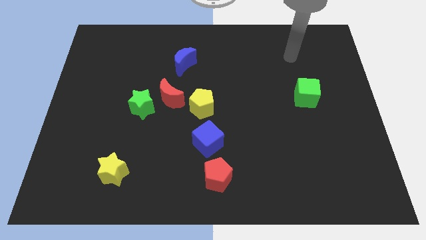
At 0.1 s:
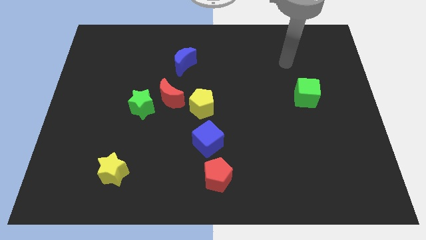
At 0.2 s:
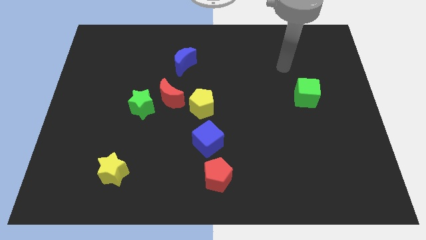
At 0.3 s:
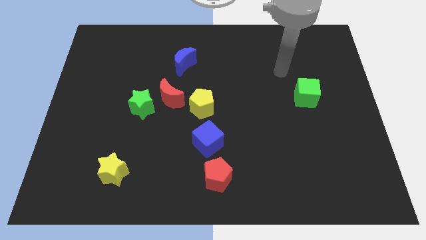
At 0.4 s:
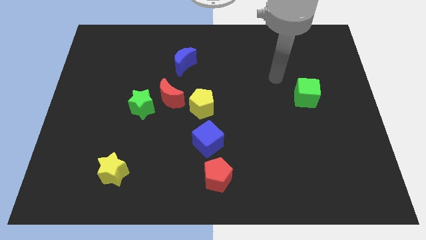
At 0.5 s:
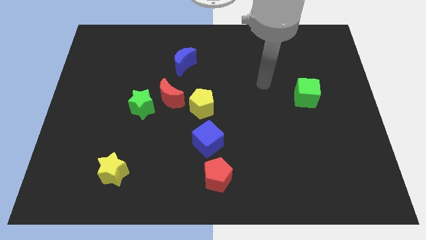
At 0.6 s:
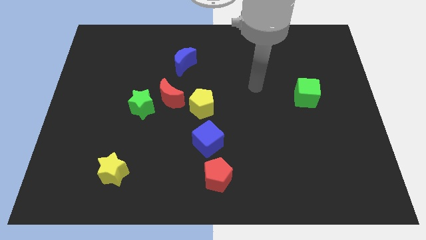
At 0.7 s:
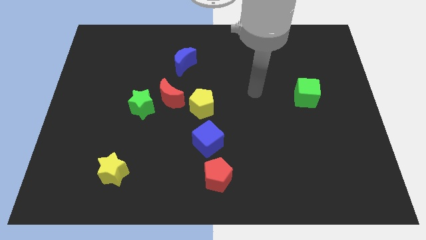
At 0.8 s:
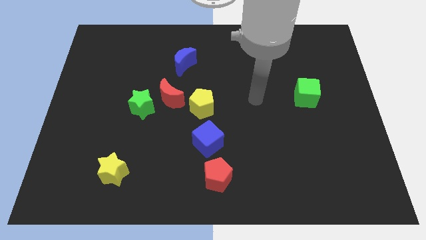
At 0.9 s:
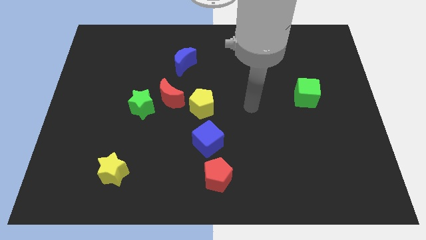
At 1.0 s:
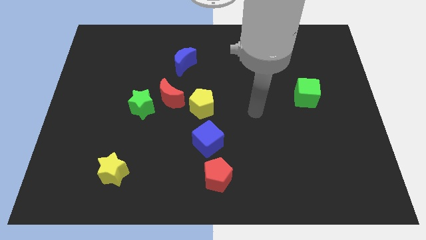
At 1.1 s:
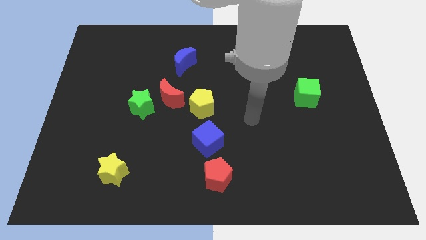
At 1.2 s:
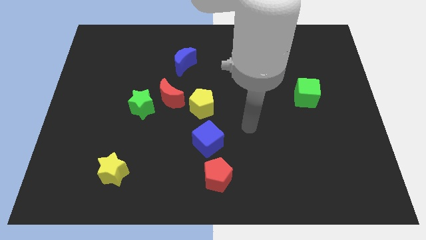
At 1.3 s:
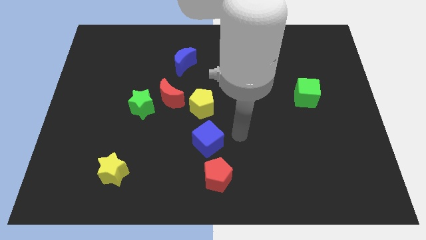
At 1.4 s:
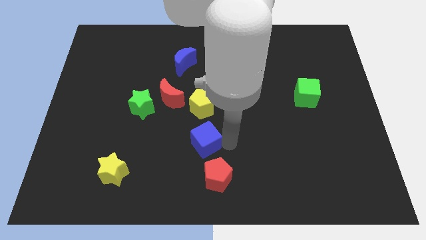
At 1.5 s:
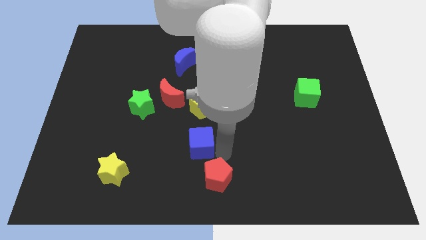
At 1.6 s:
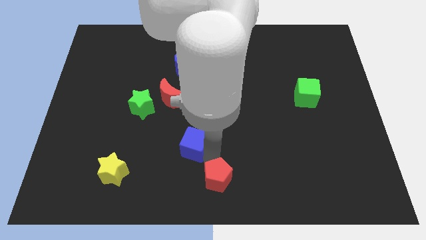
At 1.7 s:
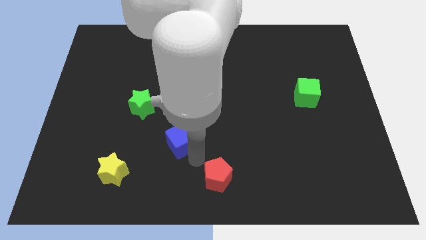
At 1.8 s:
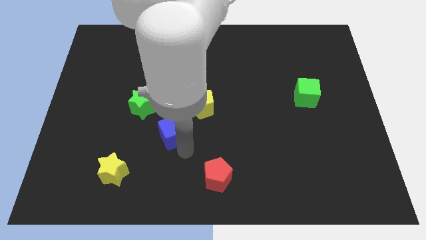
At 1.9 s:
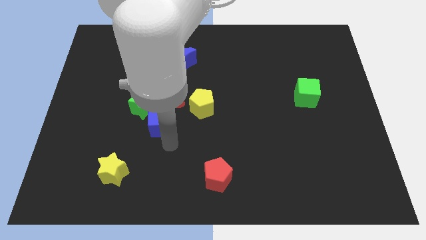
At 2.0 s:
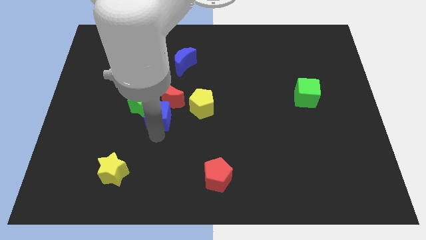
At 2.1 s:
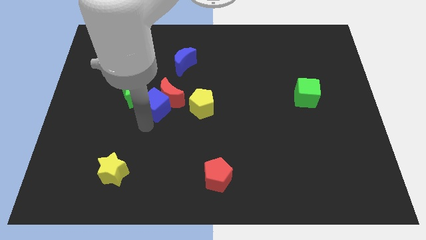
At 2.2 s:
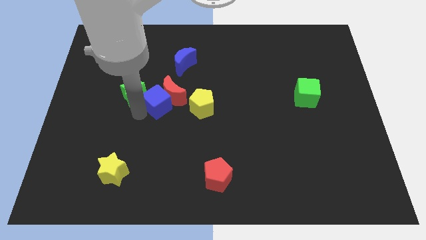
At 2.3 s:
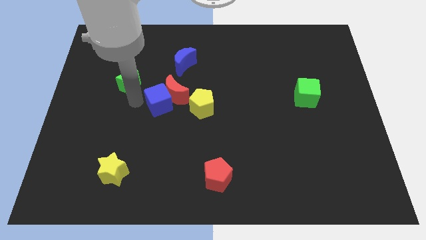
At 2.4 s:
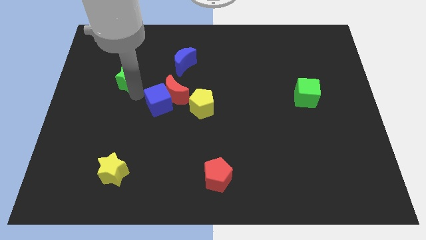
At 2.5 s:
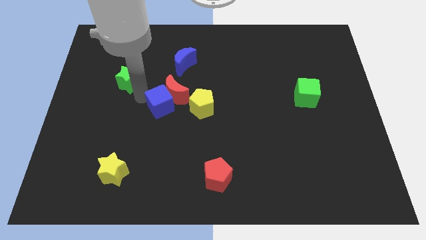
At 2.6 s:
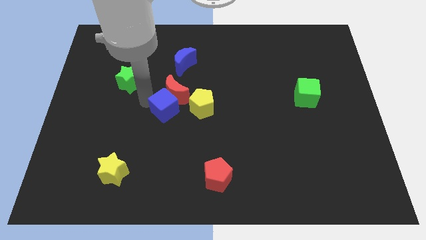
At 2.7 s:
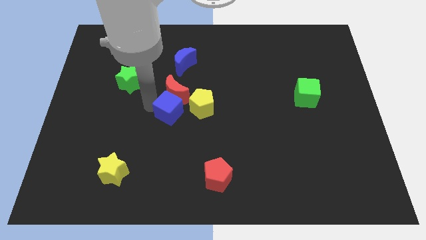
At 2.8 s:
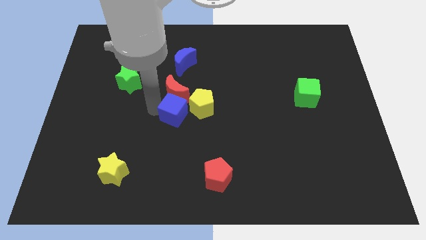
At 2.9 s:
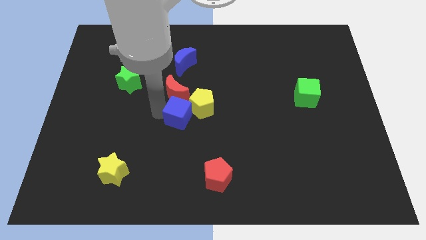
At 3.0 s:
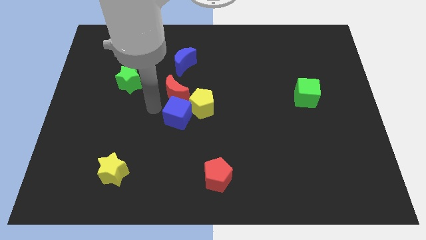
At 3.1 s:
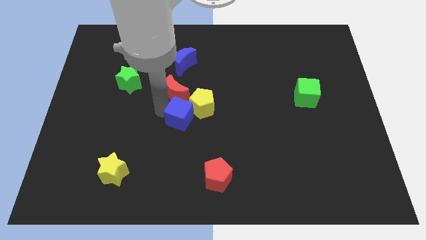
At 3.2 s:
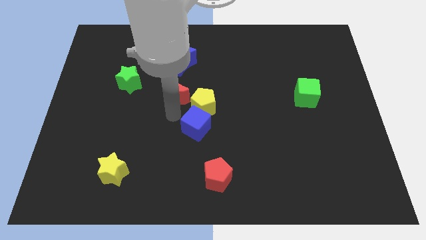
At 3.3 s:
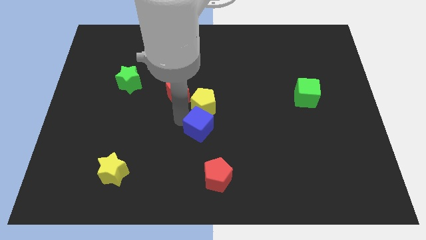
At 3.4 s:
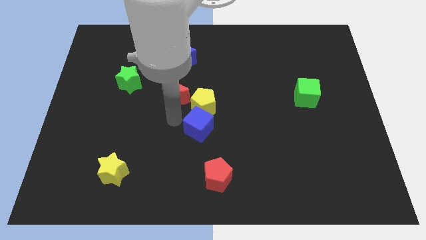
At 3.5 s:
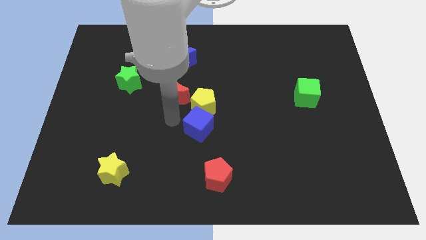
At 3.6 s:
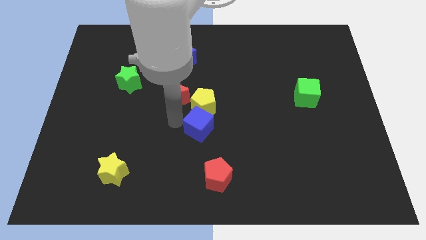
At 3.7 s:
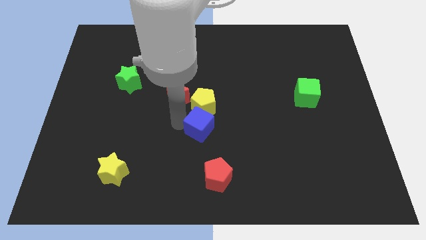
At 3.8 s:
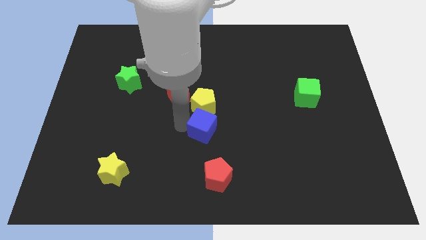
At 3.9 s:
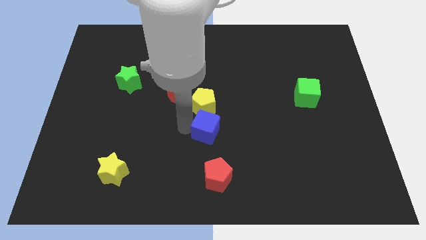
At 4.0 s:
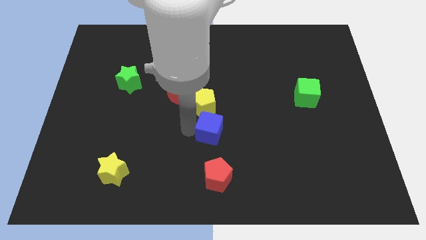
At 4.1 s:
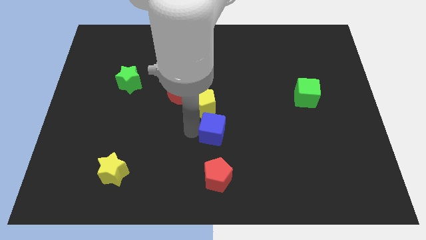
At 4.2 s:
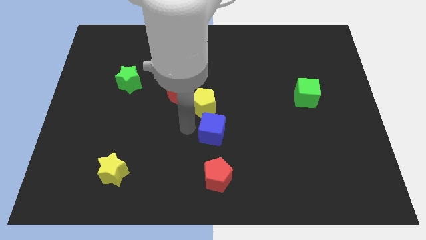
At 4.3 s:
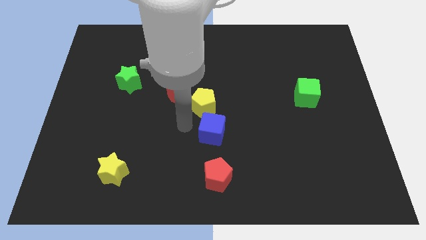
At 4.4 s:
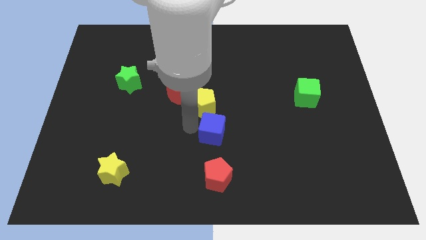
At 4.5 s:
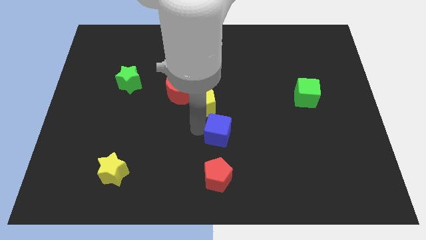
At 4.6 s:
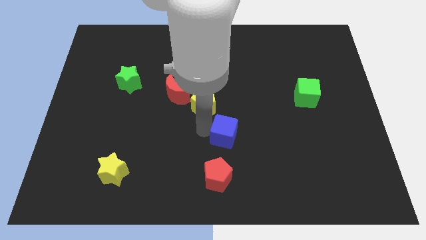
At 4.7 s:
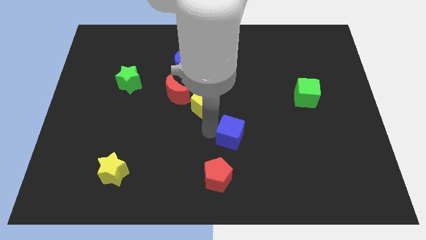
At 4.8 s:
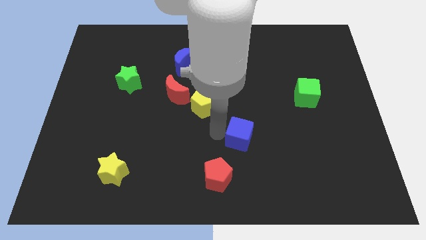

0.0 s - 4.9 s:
slightly move the blue cube right

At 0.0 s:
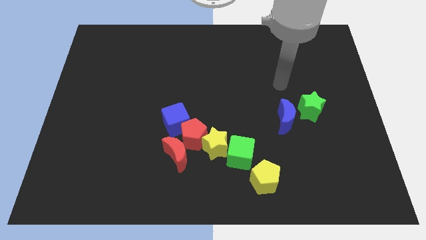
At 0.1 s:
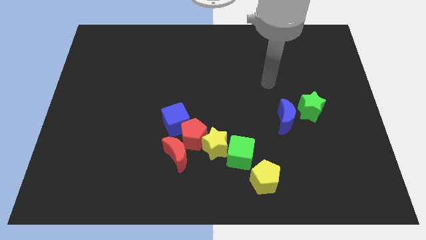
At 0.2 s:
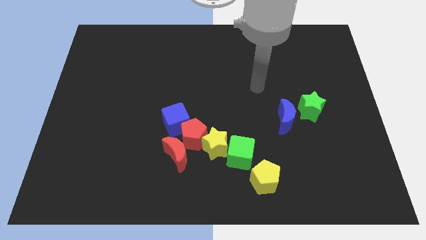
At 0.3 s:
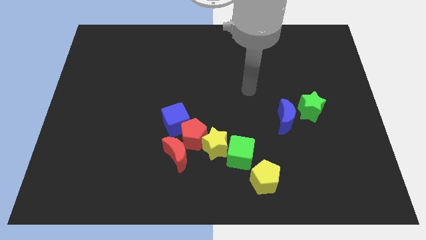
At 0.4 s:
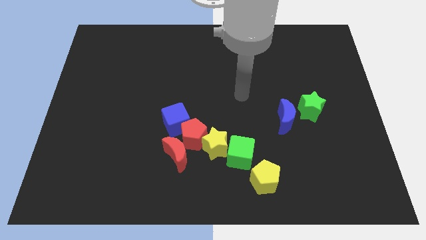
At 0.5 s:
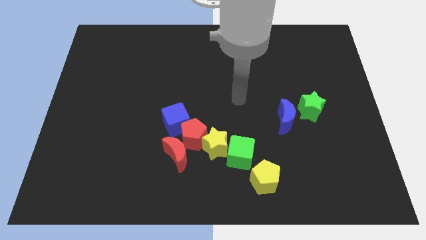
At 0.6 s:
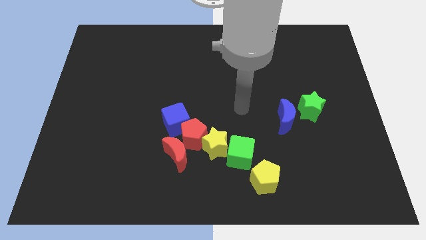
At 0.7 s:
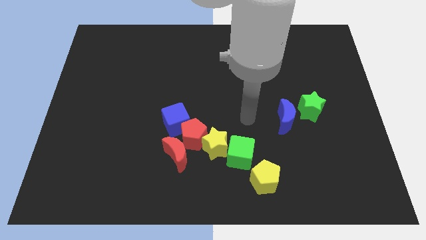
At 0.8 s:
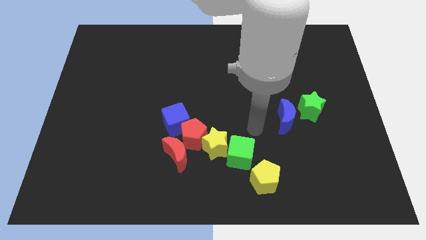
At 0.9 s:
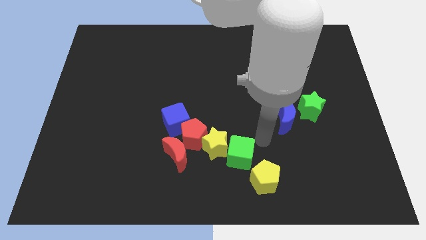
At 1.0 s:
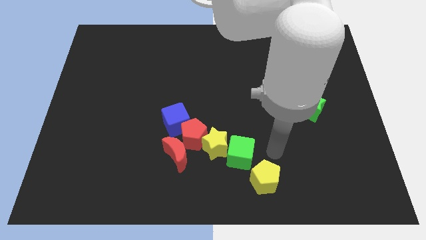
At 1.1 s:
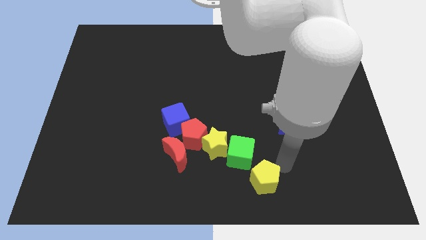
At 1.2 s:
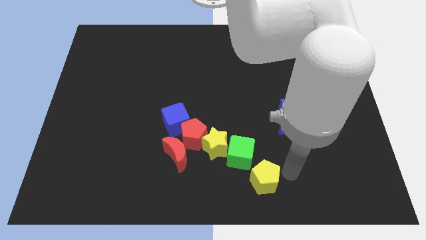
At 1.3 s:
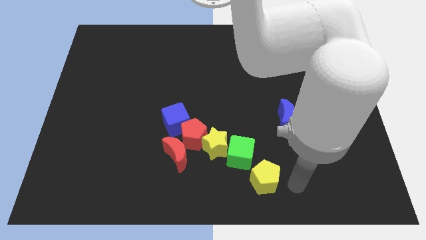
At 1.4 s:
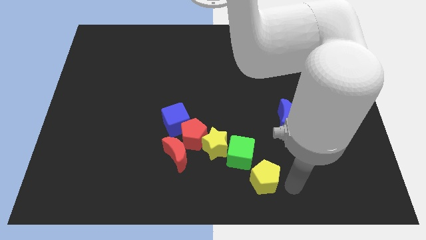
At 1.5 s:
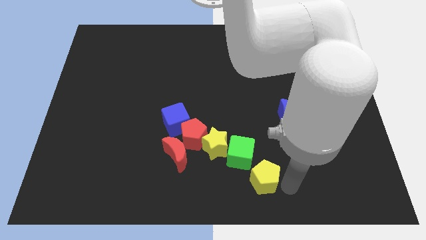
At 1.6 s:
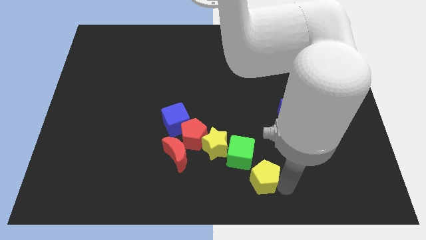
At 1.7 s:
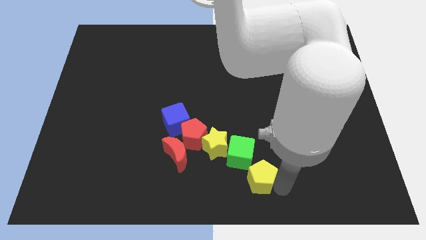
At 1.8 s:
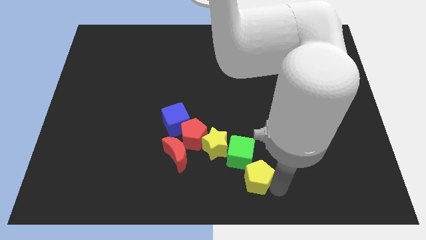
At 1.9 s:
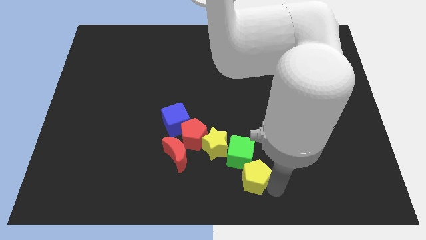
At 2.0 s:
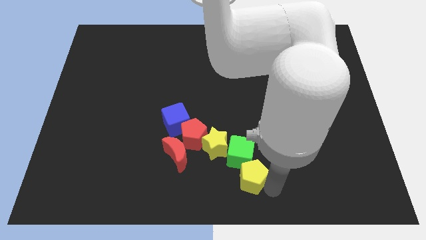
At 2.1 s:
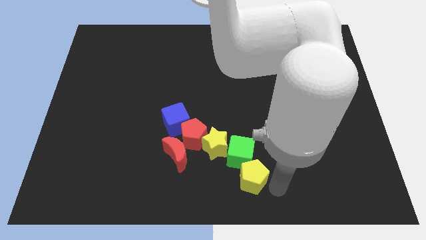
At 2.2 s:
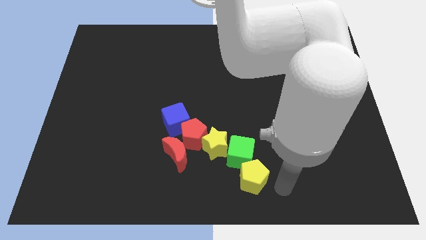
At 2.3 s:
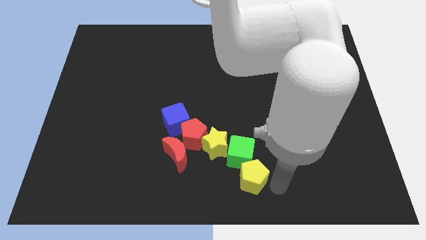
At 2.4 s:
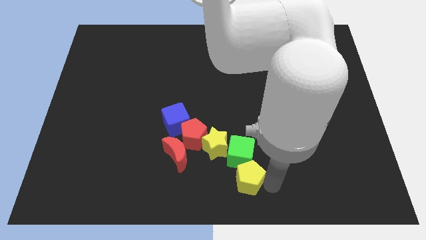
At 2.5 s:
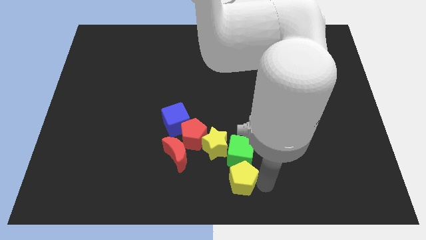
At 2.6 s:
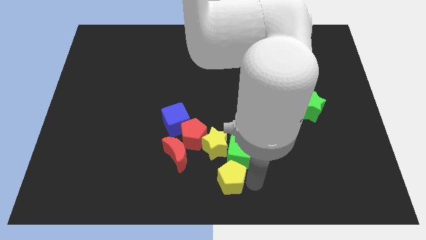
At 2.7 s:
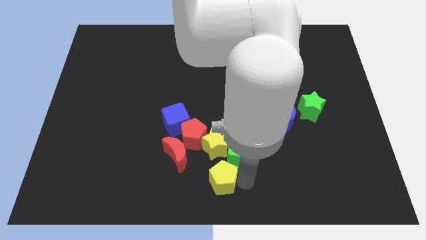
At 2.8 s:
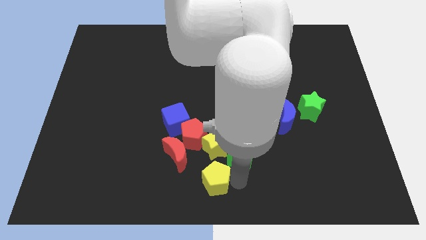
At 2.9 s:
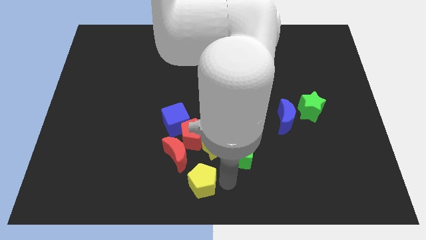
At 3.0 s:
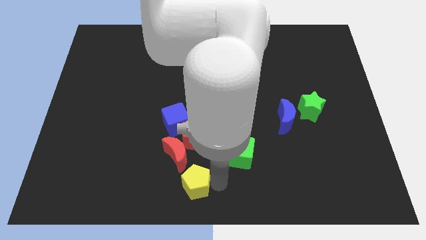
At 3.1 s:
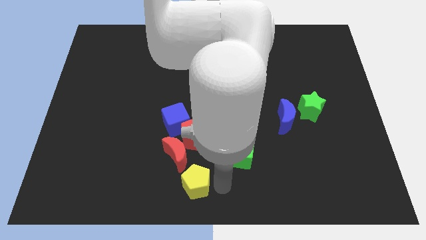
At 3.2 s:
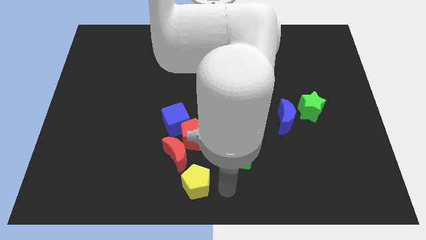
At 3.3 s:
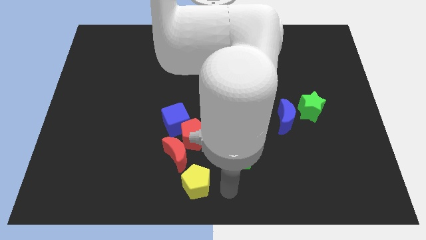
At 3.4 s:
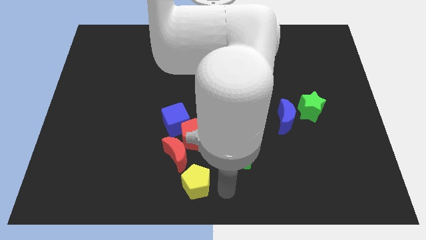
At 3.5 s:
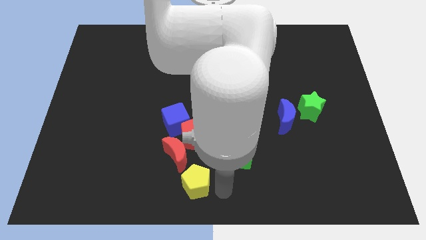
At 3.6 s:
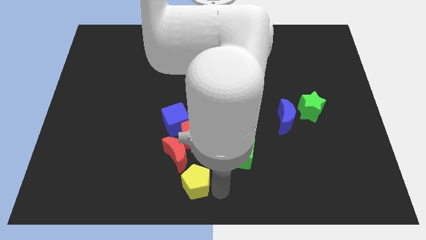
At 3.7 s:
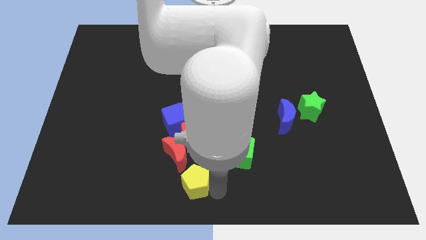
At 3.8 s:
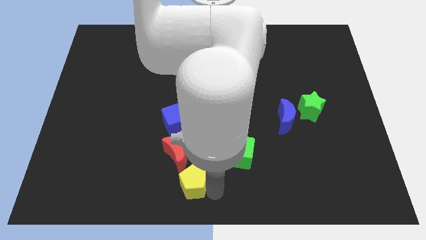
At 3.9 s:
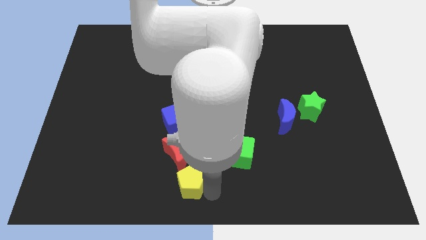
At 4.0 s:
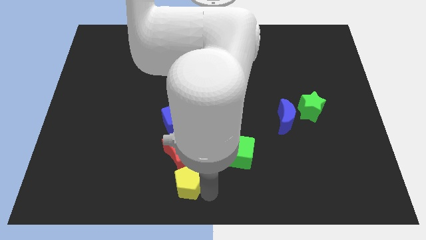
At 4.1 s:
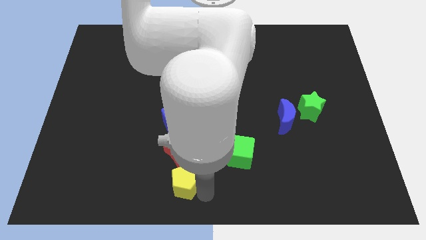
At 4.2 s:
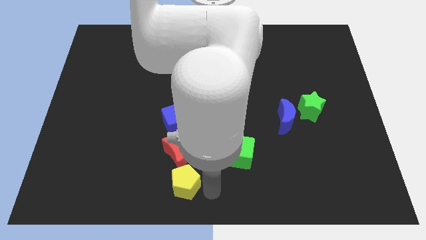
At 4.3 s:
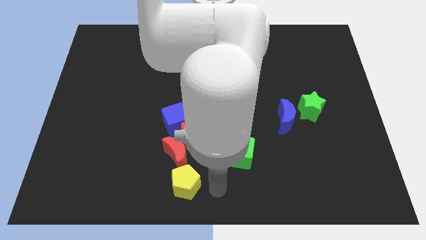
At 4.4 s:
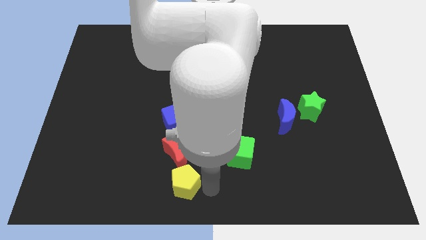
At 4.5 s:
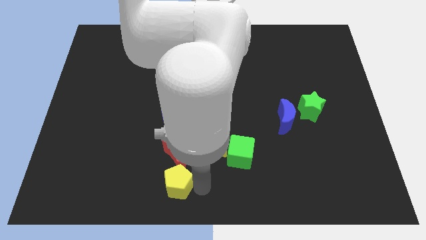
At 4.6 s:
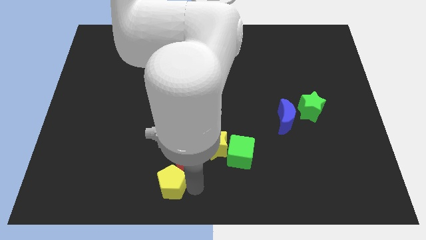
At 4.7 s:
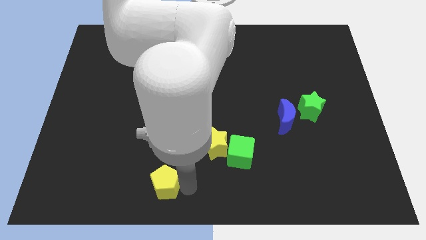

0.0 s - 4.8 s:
slide the yellow pentagon to the left
